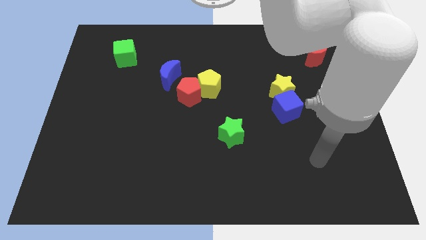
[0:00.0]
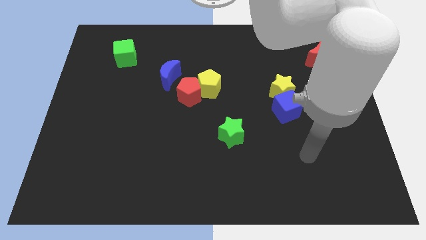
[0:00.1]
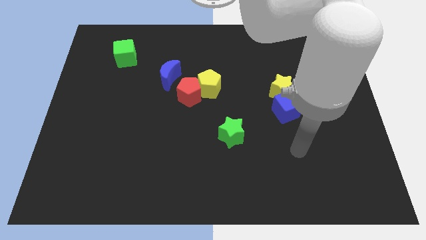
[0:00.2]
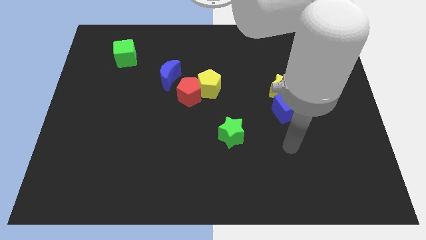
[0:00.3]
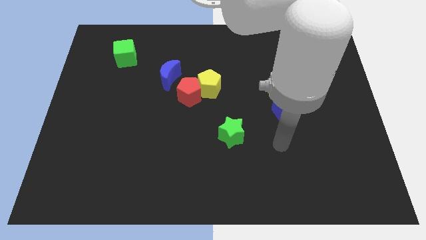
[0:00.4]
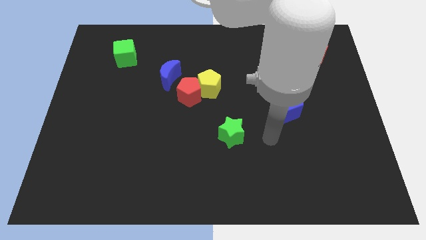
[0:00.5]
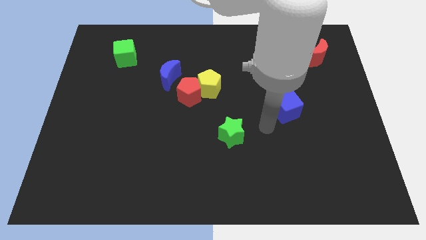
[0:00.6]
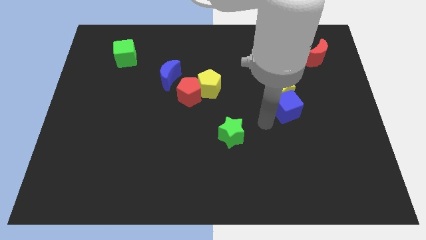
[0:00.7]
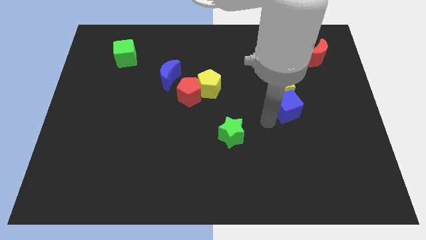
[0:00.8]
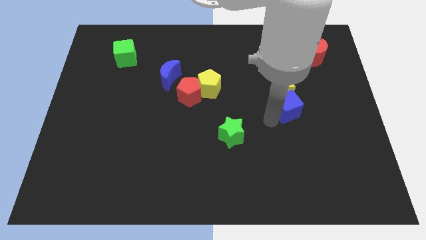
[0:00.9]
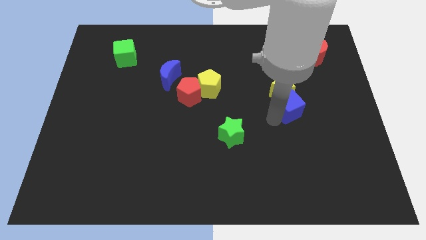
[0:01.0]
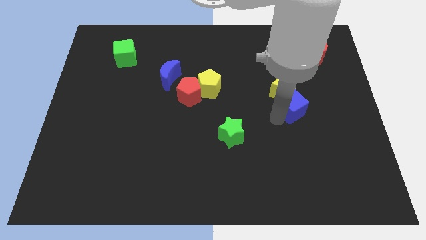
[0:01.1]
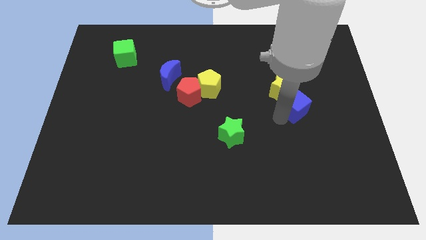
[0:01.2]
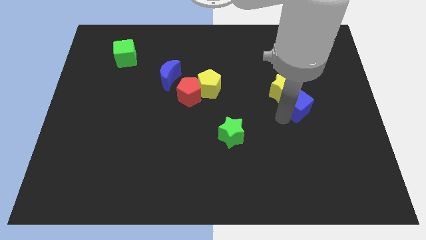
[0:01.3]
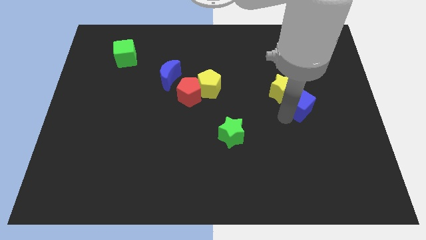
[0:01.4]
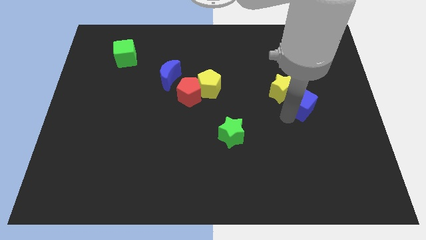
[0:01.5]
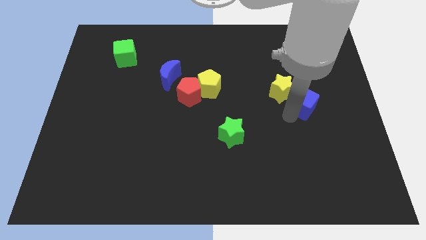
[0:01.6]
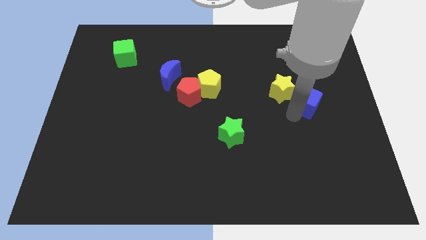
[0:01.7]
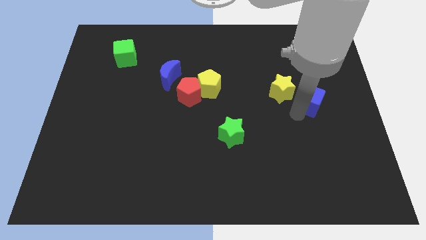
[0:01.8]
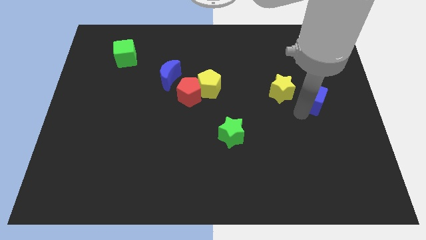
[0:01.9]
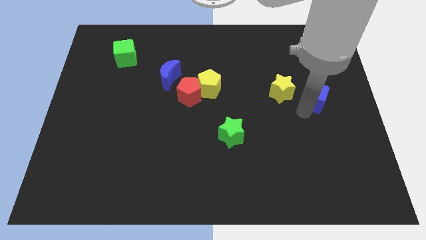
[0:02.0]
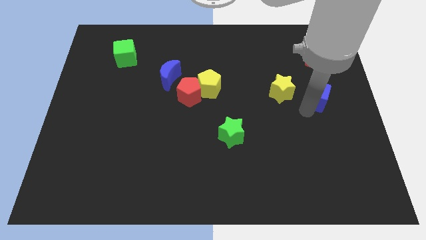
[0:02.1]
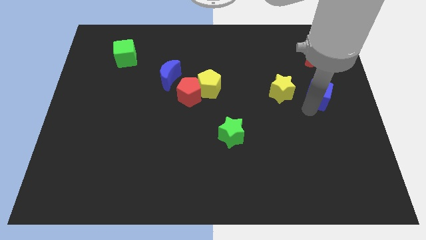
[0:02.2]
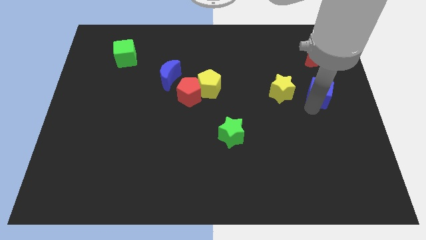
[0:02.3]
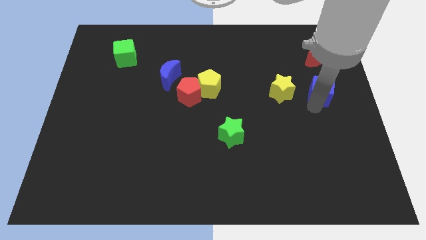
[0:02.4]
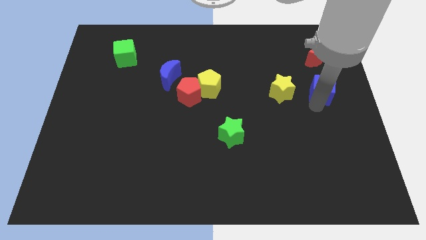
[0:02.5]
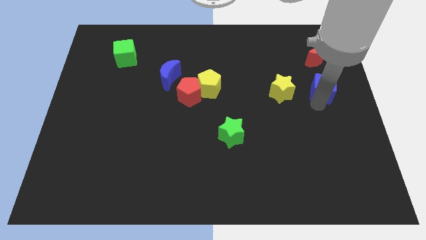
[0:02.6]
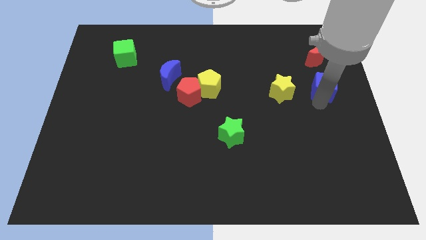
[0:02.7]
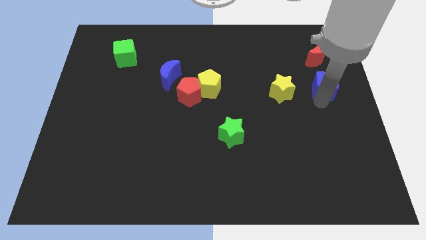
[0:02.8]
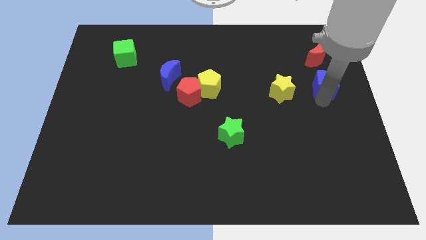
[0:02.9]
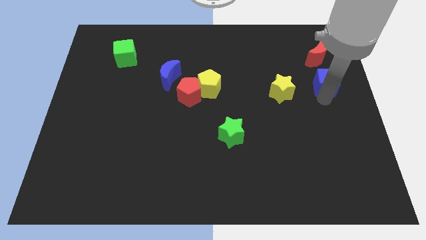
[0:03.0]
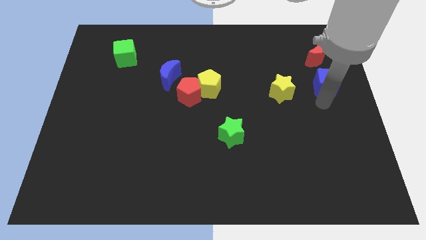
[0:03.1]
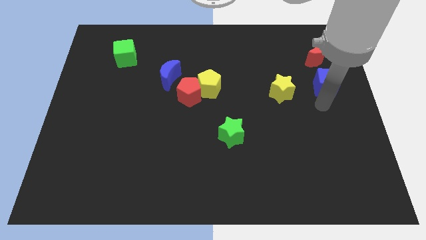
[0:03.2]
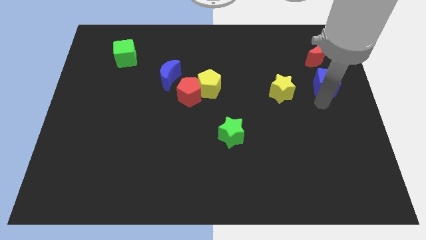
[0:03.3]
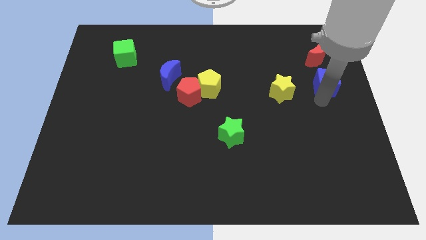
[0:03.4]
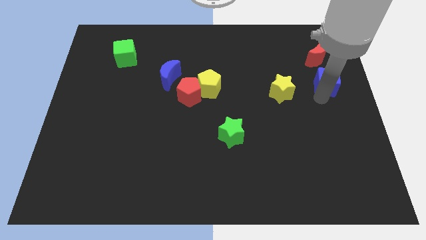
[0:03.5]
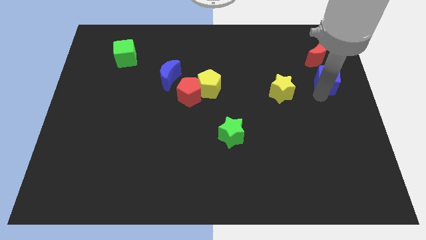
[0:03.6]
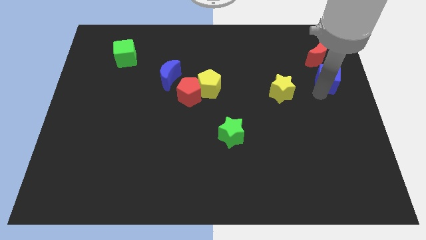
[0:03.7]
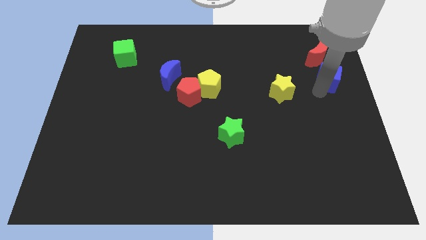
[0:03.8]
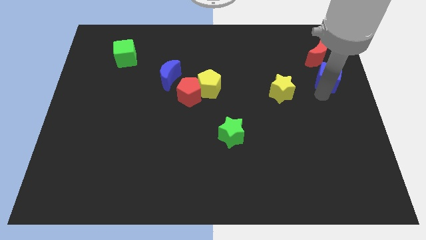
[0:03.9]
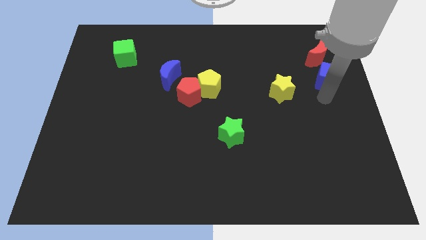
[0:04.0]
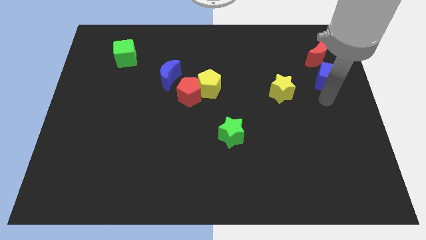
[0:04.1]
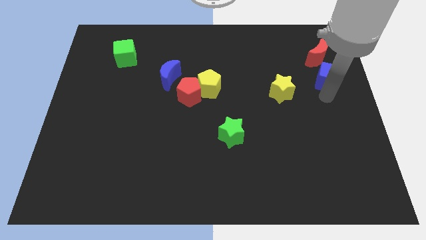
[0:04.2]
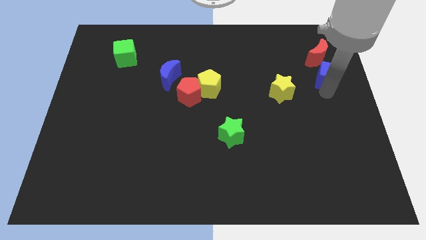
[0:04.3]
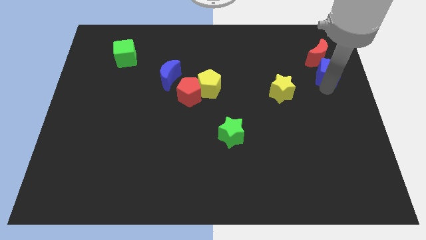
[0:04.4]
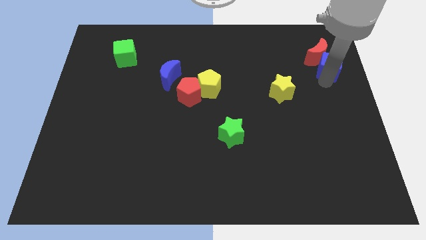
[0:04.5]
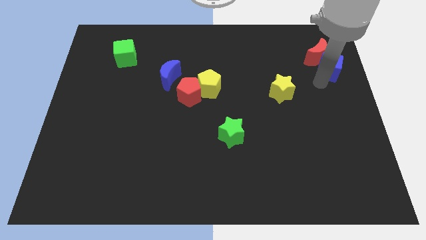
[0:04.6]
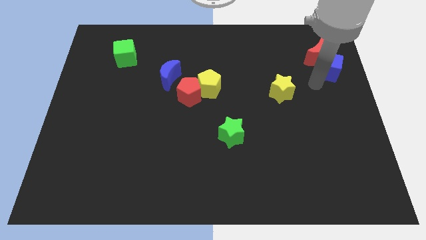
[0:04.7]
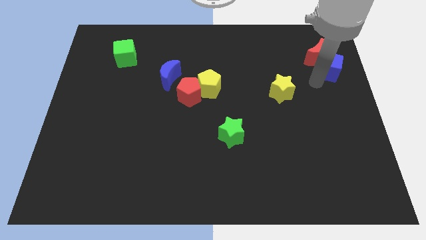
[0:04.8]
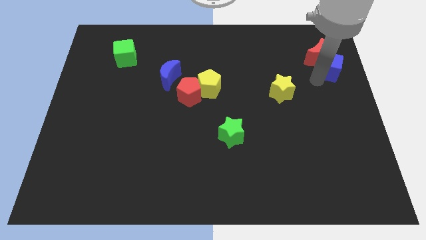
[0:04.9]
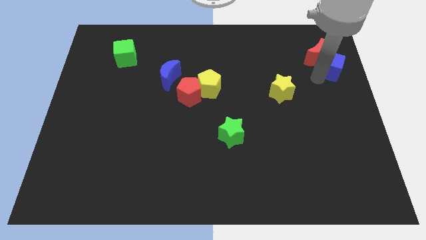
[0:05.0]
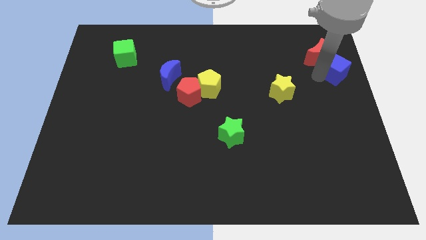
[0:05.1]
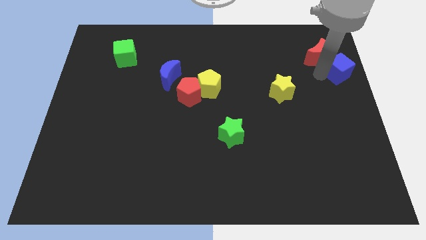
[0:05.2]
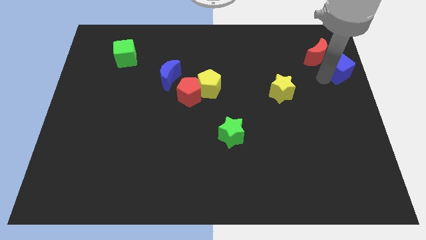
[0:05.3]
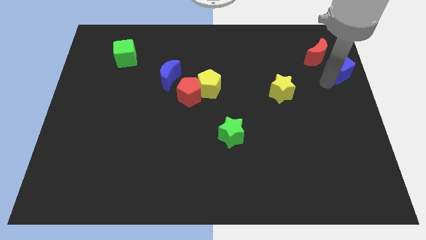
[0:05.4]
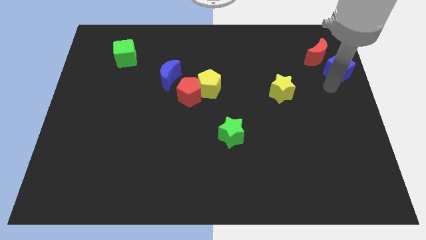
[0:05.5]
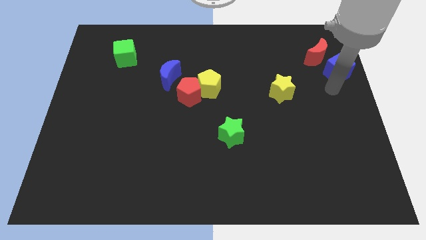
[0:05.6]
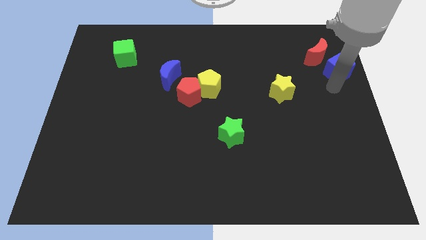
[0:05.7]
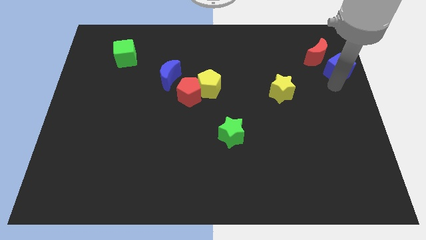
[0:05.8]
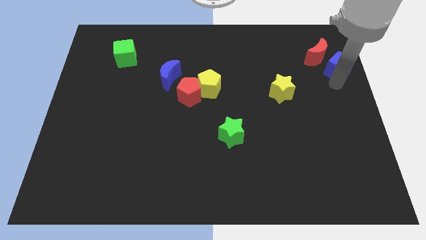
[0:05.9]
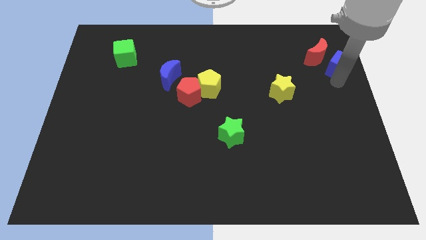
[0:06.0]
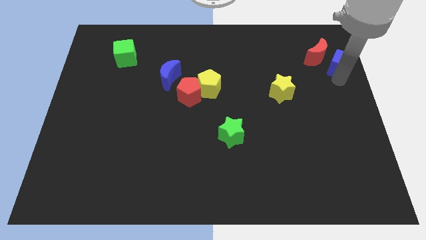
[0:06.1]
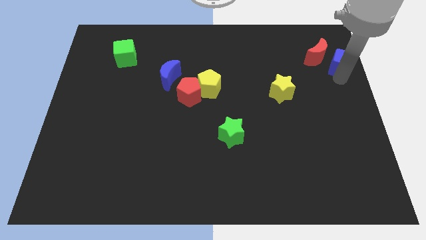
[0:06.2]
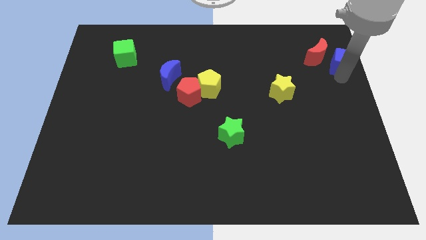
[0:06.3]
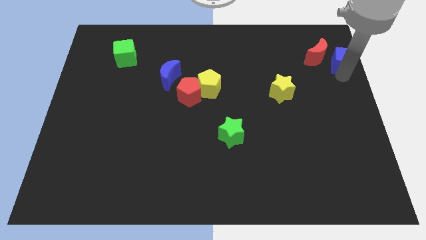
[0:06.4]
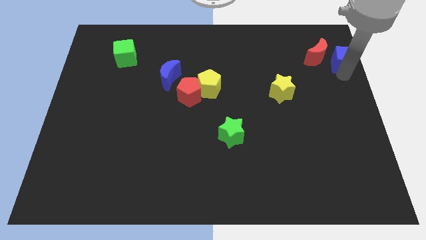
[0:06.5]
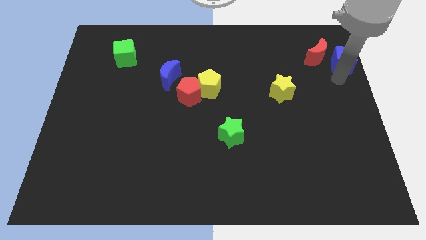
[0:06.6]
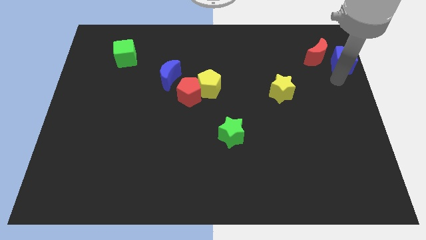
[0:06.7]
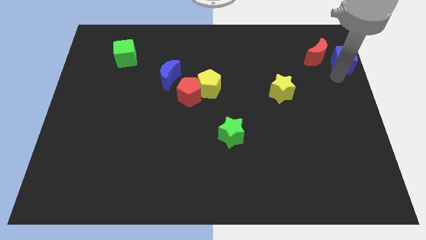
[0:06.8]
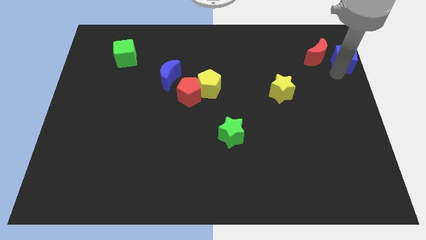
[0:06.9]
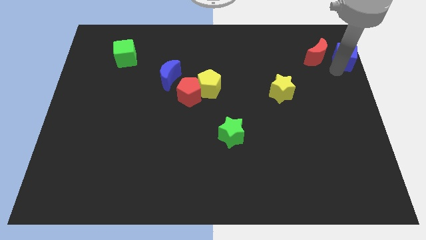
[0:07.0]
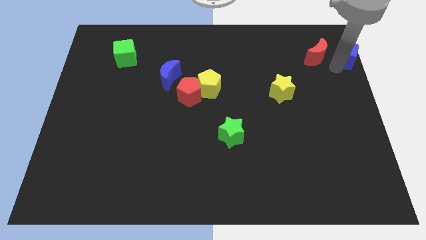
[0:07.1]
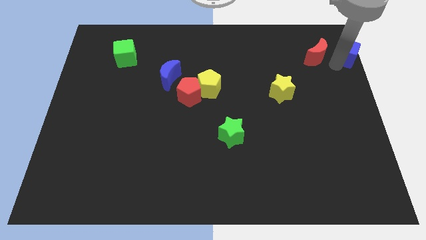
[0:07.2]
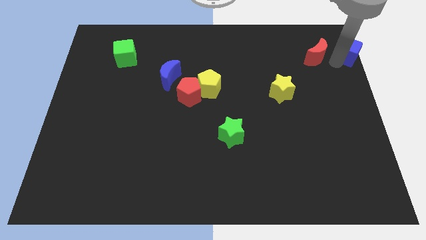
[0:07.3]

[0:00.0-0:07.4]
push the blue cube to the top right of the board
